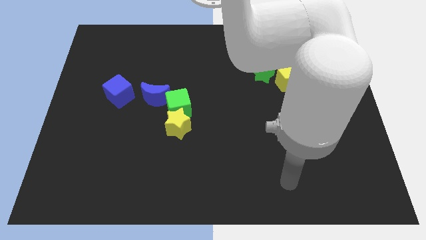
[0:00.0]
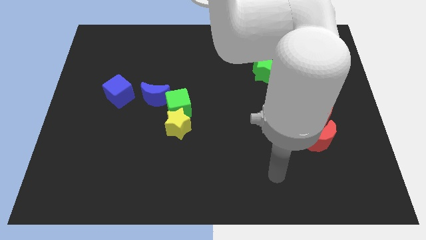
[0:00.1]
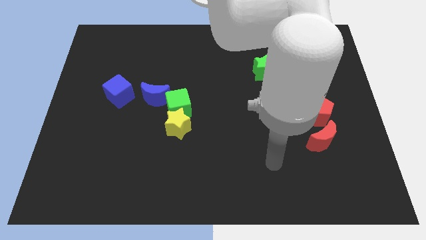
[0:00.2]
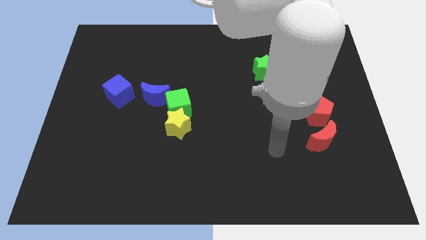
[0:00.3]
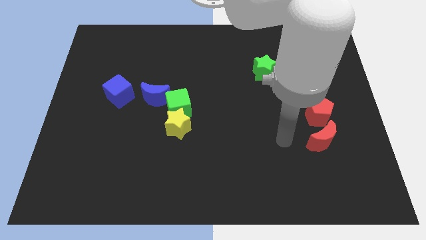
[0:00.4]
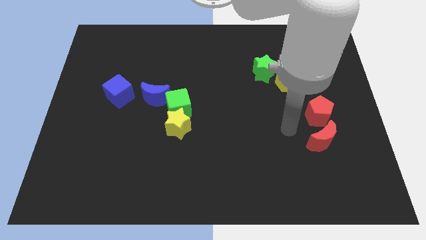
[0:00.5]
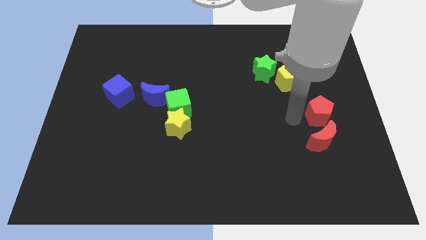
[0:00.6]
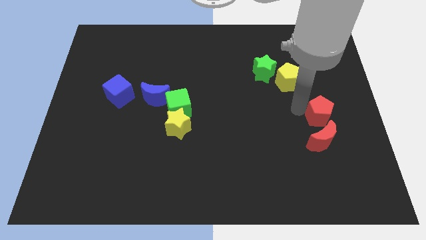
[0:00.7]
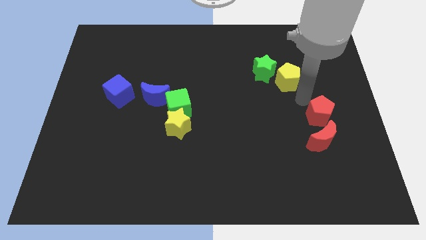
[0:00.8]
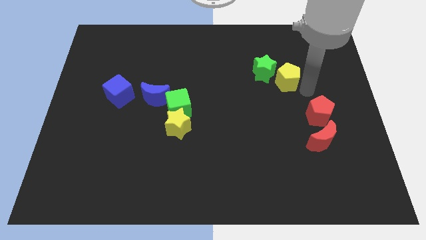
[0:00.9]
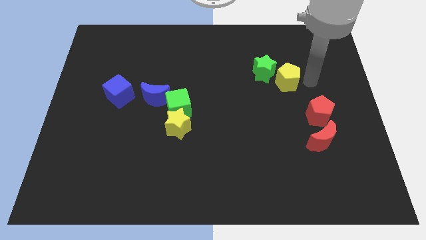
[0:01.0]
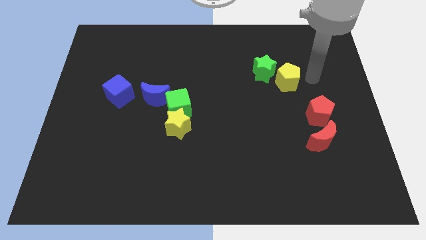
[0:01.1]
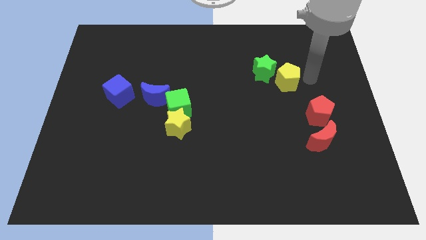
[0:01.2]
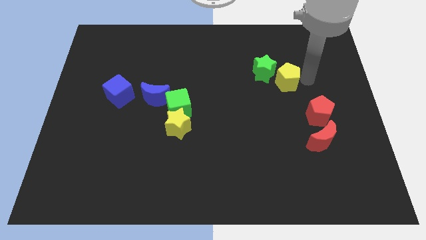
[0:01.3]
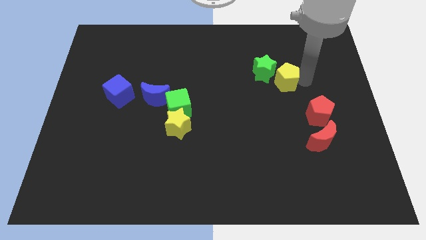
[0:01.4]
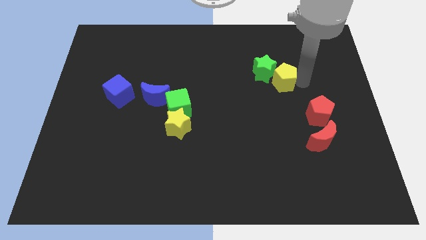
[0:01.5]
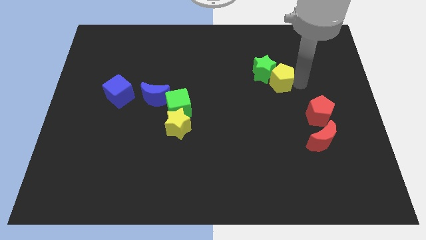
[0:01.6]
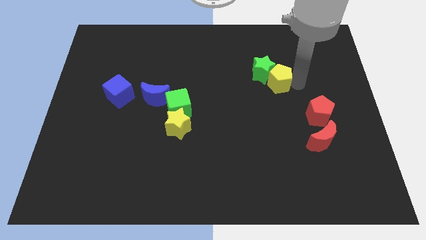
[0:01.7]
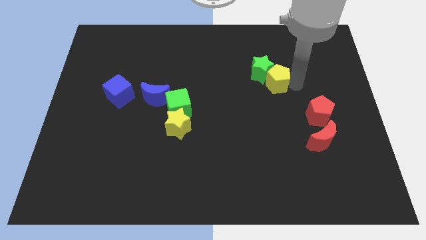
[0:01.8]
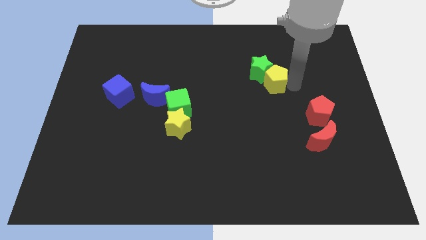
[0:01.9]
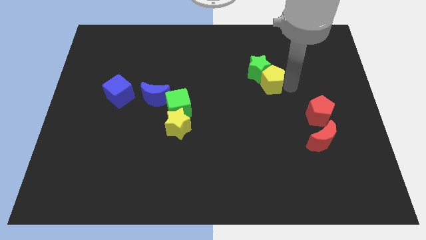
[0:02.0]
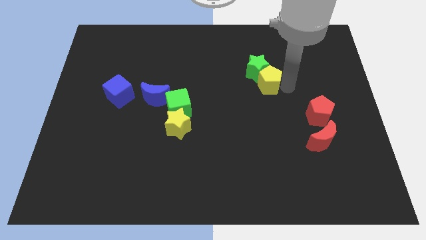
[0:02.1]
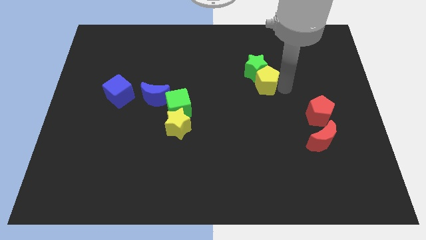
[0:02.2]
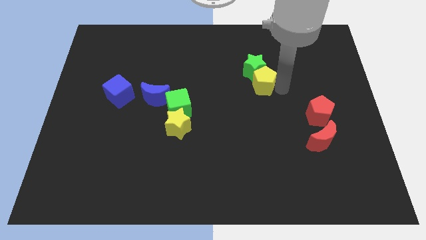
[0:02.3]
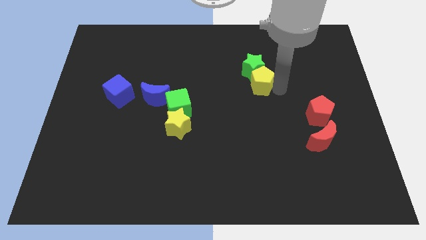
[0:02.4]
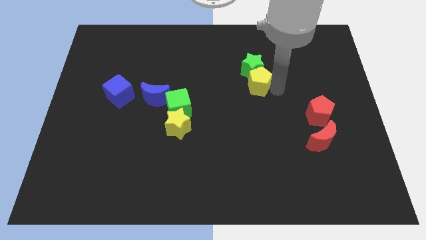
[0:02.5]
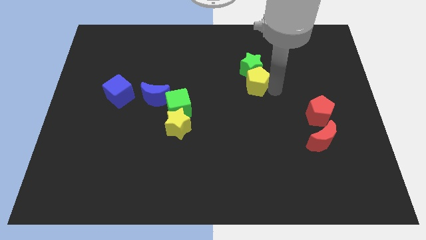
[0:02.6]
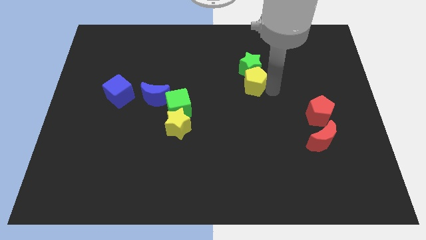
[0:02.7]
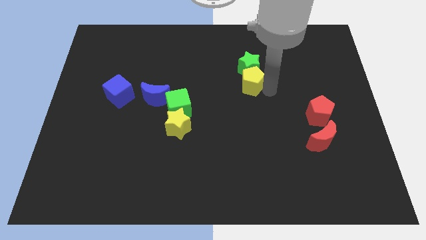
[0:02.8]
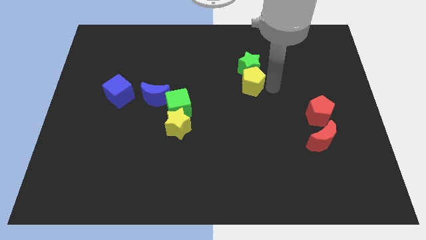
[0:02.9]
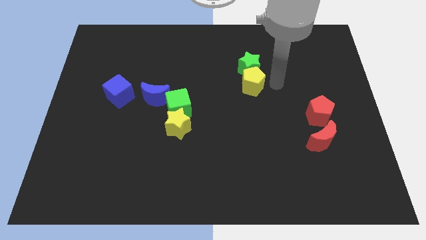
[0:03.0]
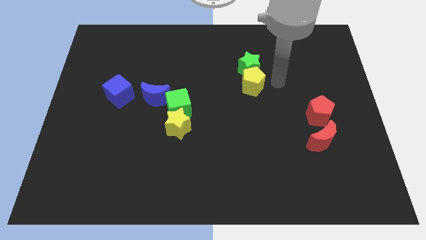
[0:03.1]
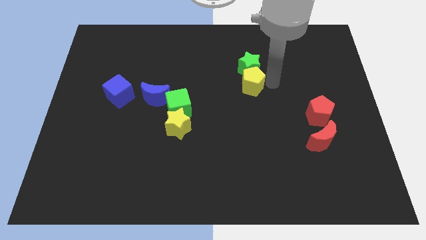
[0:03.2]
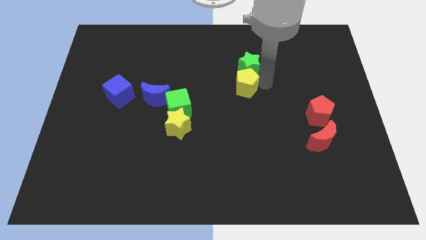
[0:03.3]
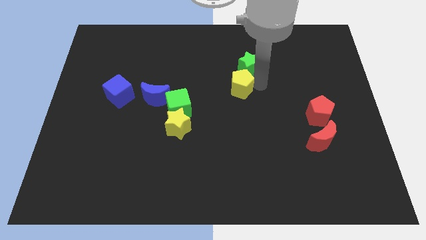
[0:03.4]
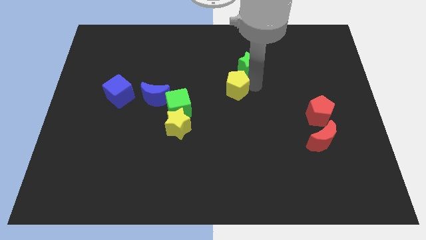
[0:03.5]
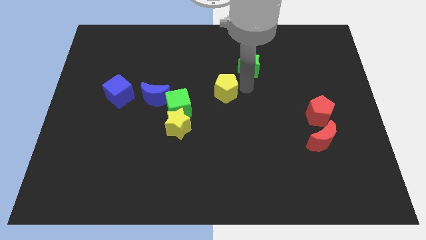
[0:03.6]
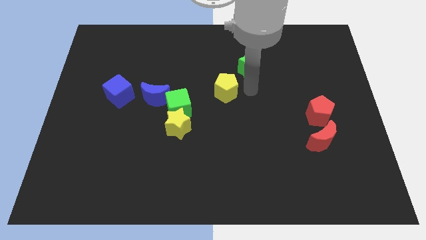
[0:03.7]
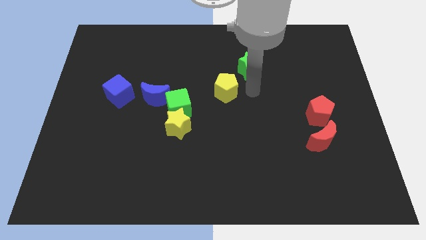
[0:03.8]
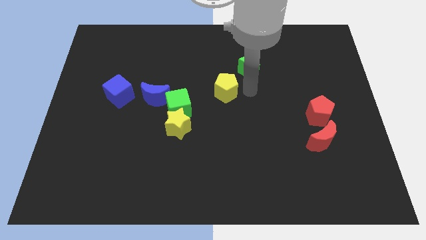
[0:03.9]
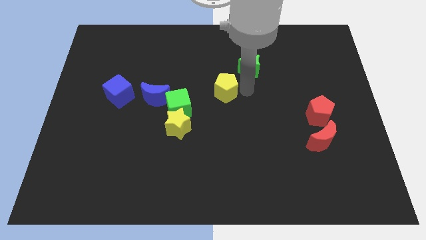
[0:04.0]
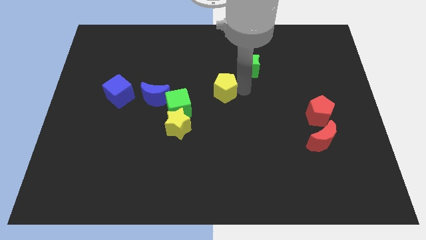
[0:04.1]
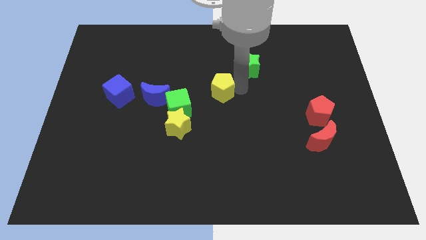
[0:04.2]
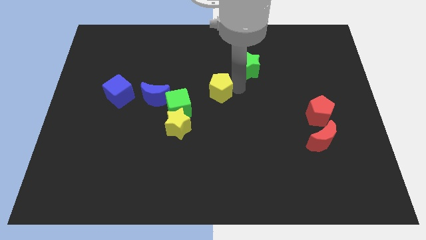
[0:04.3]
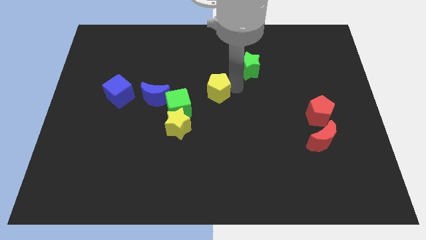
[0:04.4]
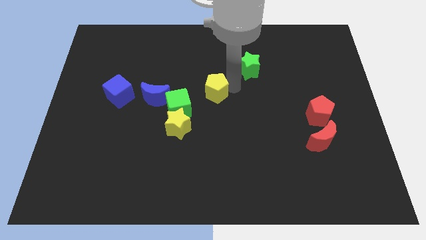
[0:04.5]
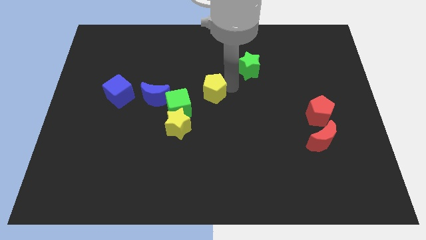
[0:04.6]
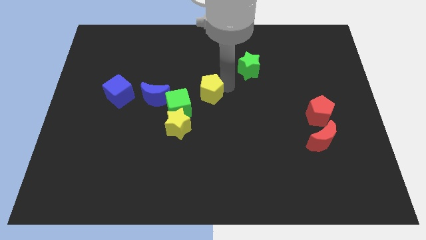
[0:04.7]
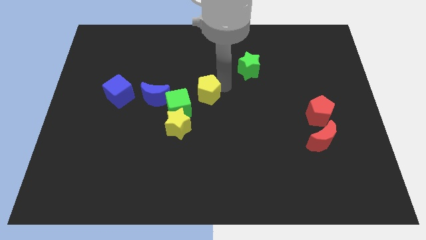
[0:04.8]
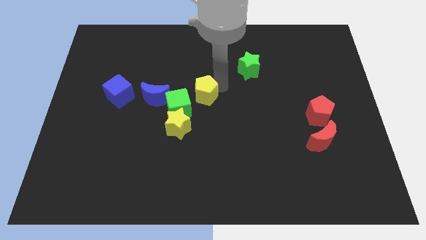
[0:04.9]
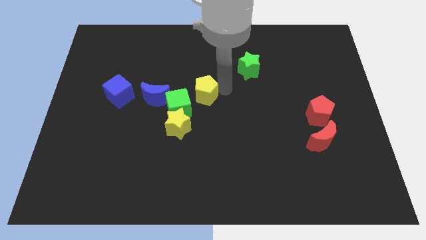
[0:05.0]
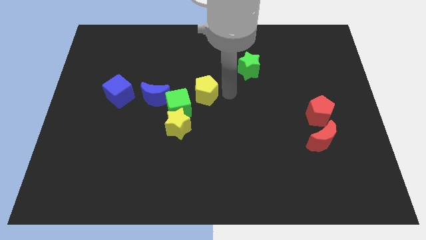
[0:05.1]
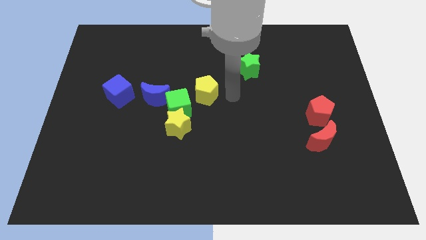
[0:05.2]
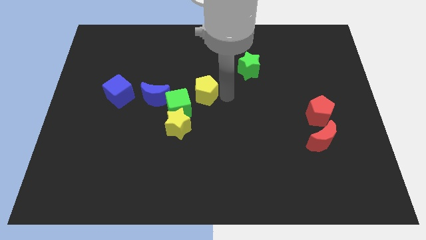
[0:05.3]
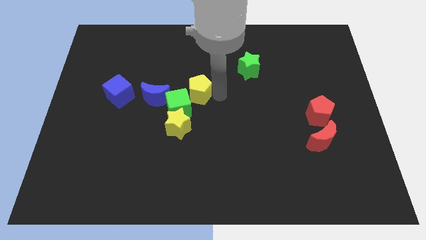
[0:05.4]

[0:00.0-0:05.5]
push the yellow pentagon to the top of the yellow star

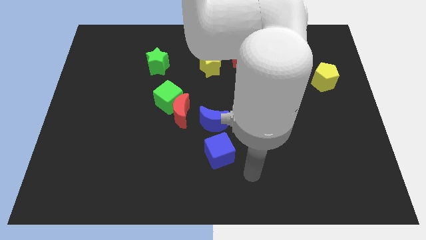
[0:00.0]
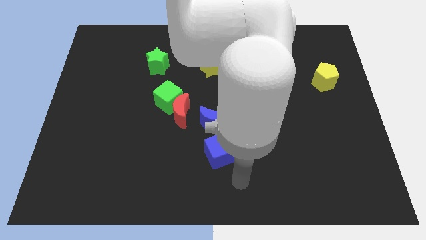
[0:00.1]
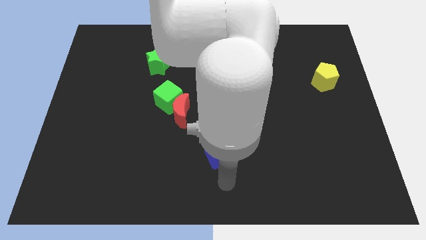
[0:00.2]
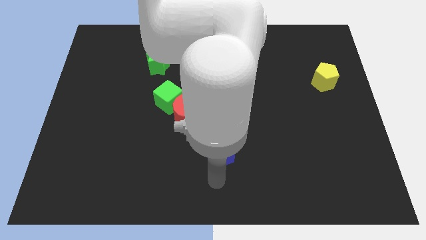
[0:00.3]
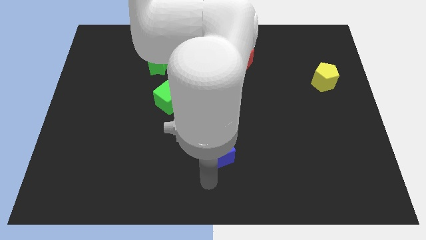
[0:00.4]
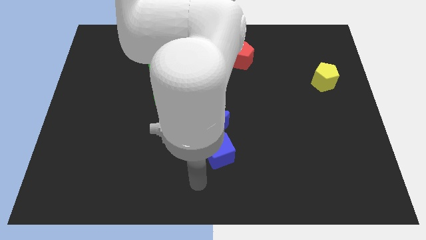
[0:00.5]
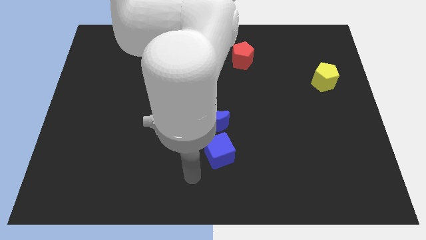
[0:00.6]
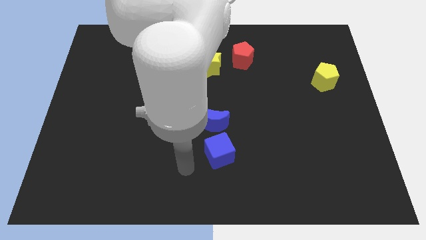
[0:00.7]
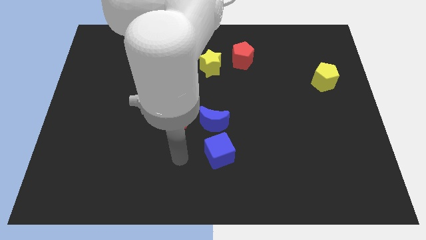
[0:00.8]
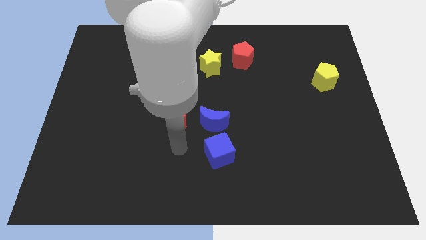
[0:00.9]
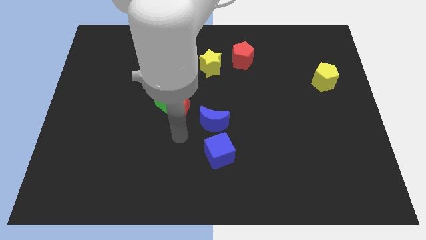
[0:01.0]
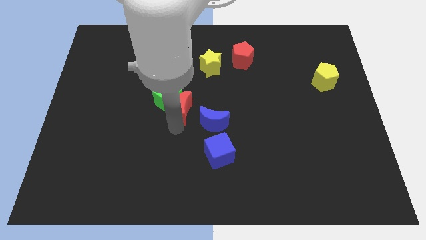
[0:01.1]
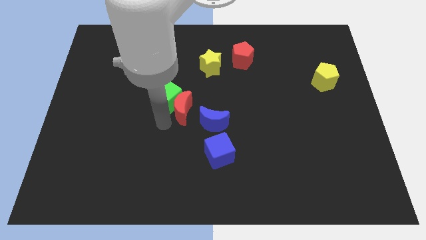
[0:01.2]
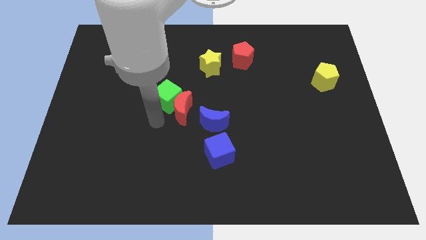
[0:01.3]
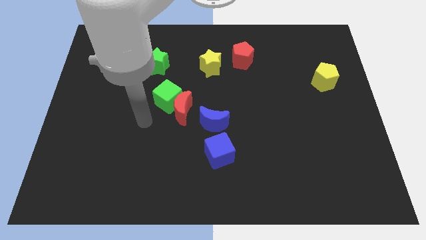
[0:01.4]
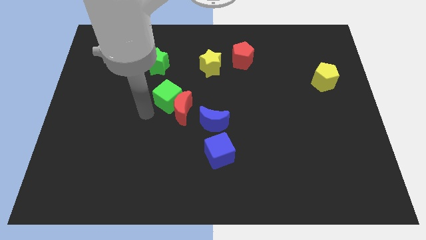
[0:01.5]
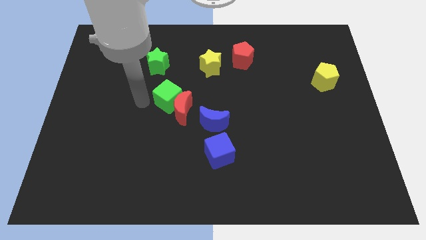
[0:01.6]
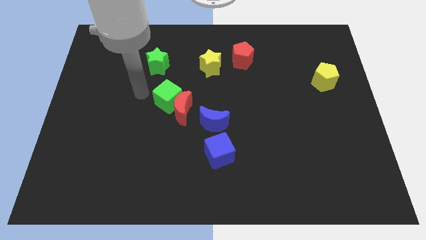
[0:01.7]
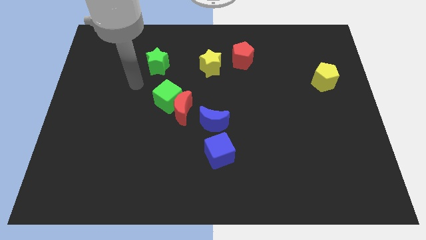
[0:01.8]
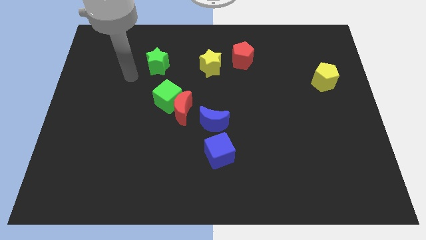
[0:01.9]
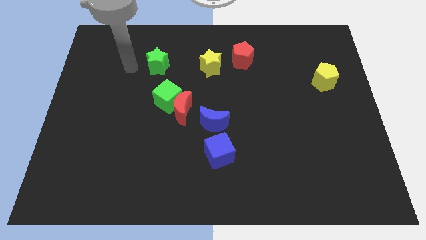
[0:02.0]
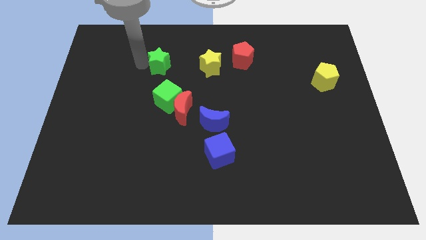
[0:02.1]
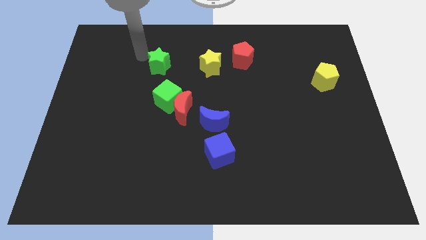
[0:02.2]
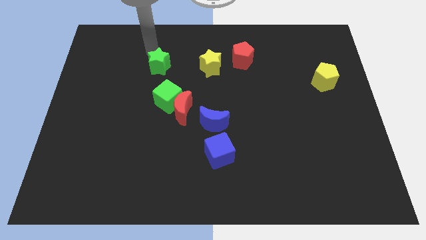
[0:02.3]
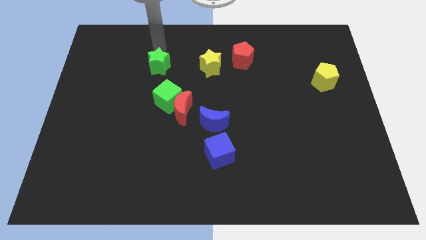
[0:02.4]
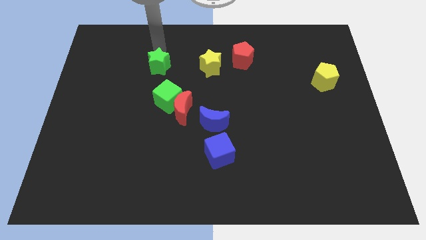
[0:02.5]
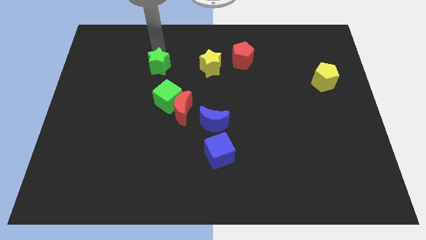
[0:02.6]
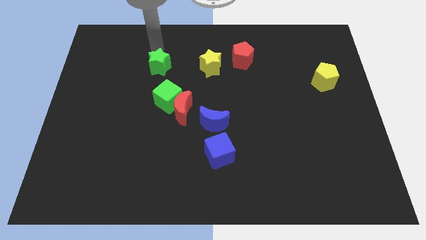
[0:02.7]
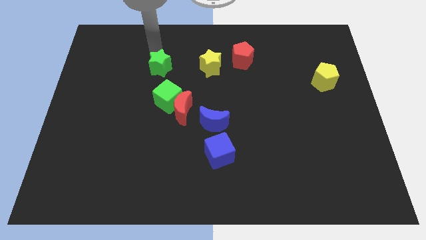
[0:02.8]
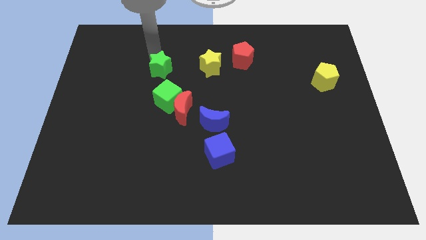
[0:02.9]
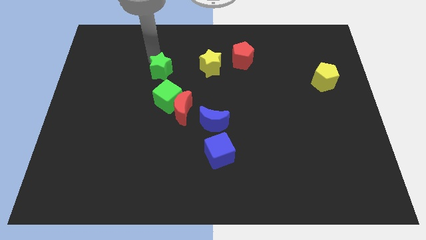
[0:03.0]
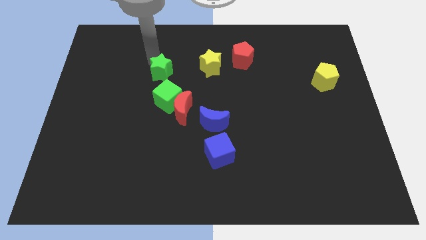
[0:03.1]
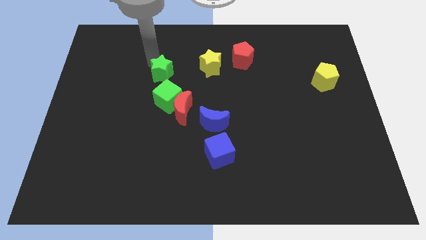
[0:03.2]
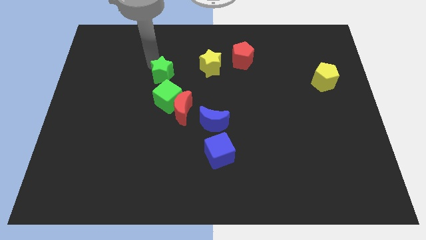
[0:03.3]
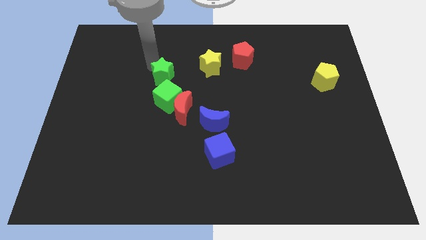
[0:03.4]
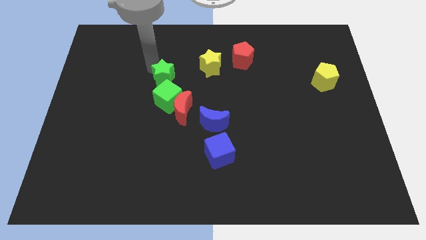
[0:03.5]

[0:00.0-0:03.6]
push the green star diagonally up and to the left of the red moon
